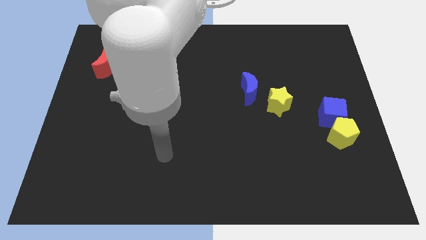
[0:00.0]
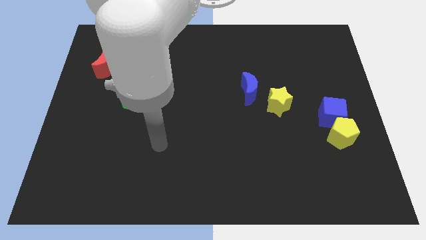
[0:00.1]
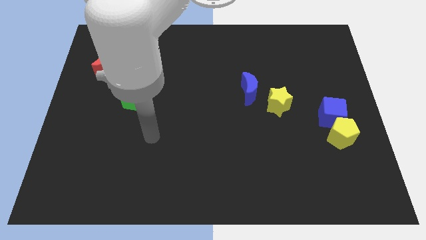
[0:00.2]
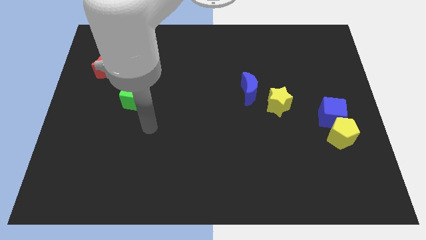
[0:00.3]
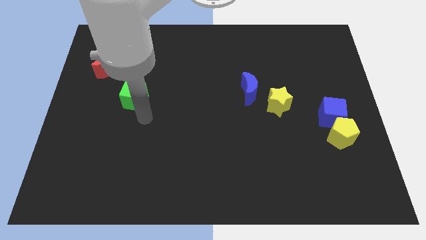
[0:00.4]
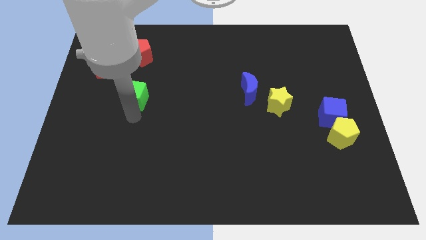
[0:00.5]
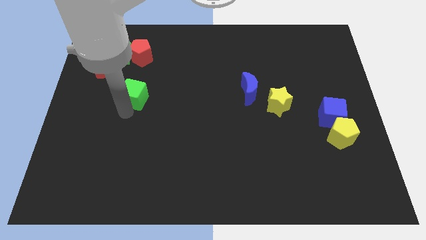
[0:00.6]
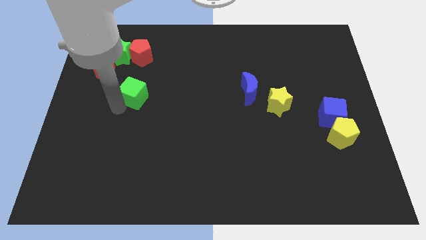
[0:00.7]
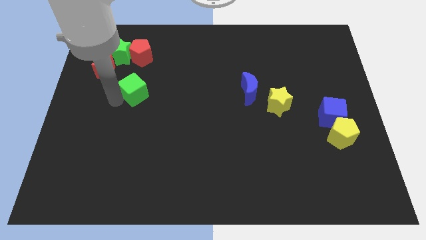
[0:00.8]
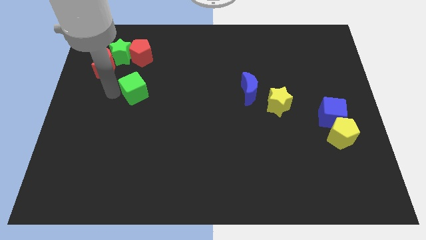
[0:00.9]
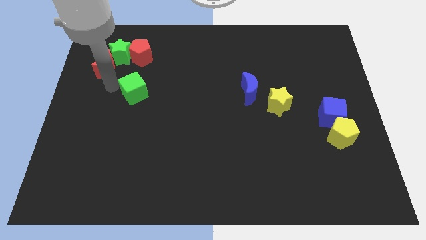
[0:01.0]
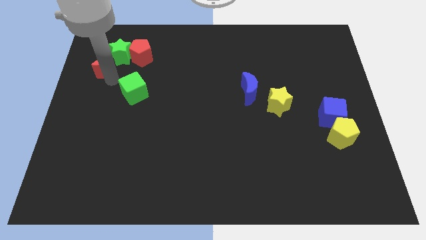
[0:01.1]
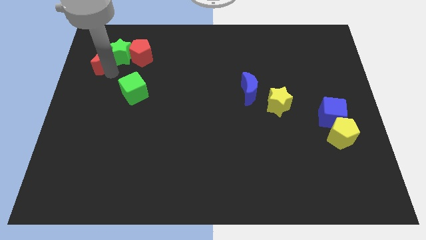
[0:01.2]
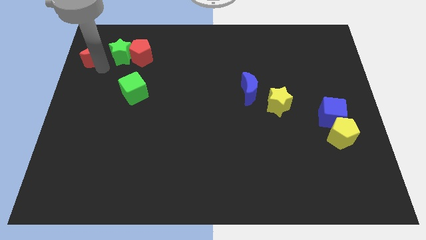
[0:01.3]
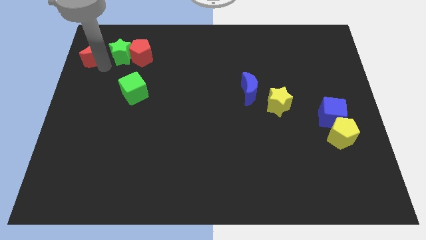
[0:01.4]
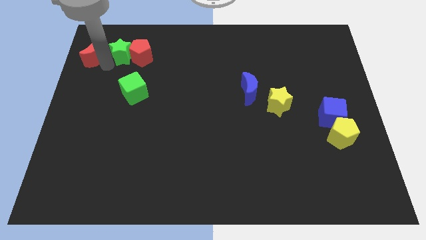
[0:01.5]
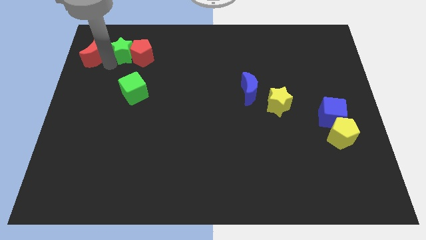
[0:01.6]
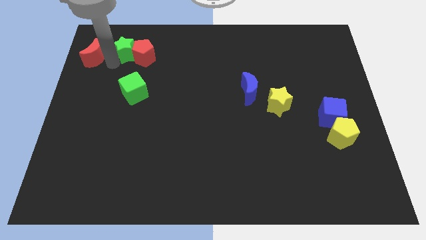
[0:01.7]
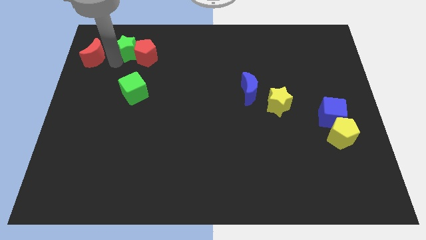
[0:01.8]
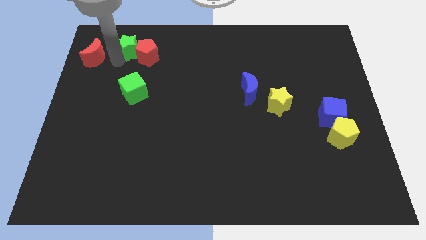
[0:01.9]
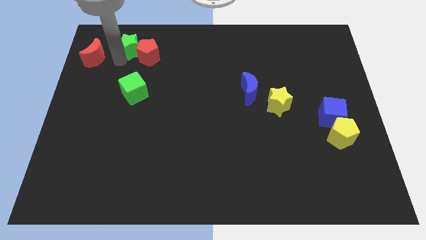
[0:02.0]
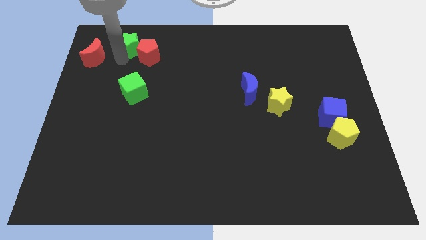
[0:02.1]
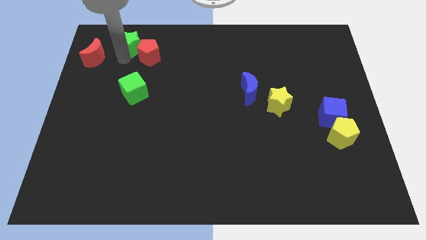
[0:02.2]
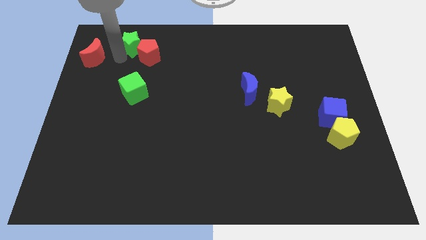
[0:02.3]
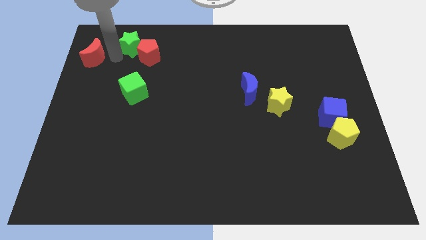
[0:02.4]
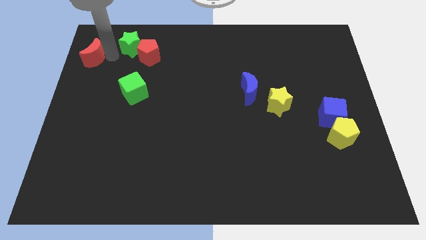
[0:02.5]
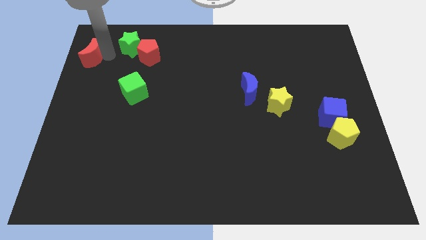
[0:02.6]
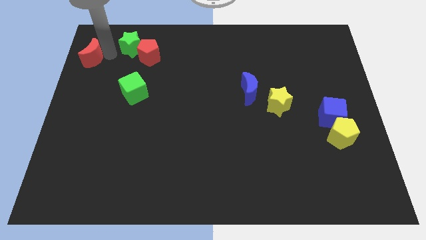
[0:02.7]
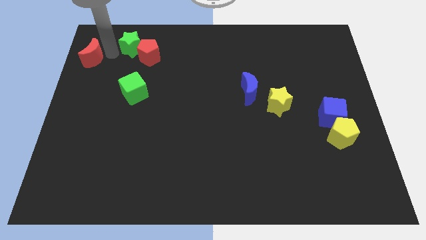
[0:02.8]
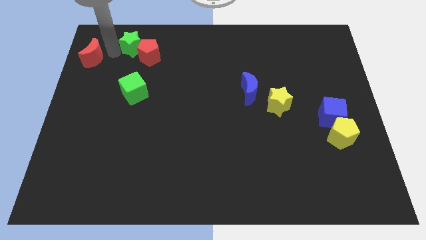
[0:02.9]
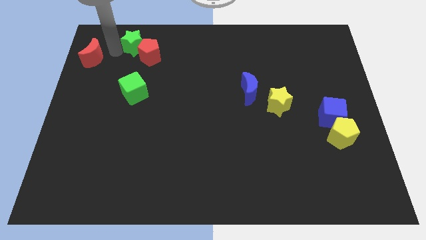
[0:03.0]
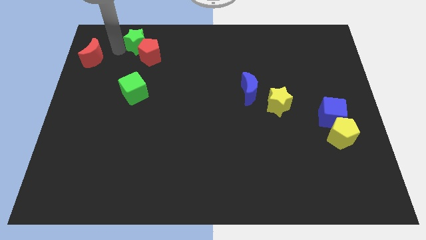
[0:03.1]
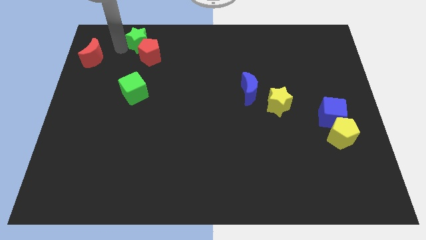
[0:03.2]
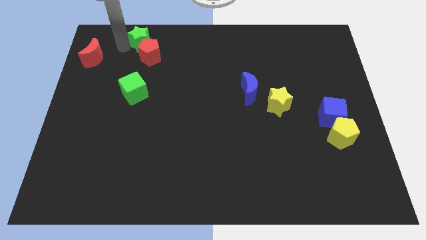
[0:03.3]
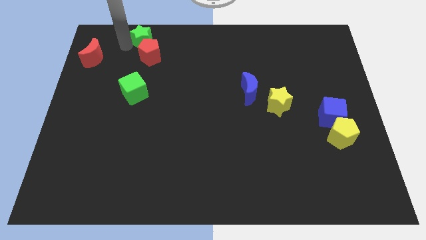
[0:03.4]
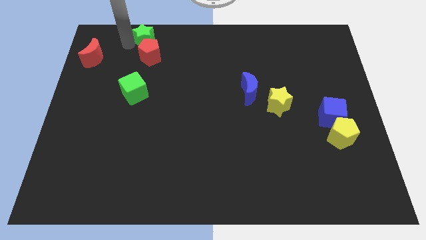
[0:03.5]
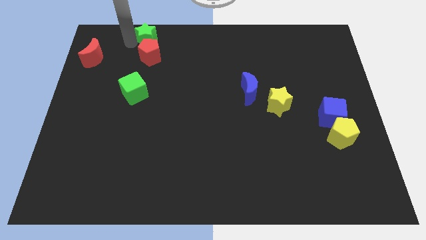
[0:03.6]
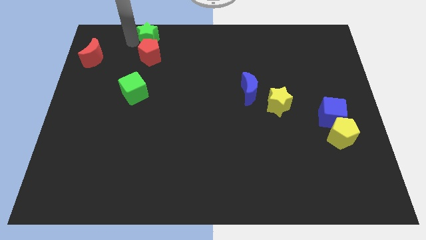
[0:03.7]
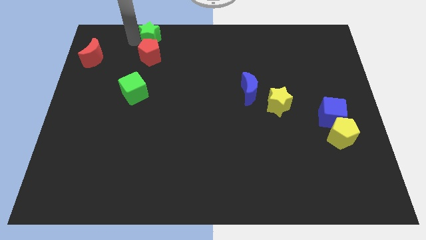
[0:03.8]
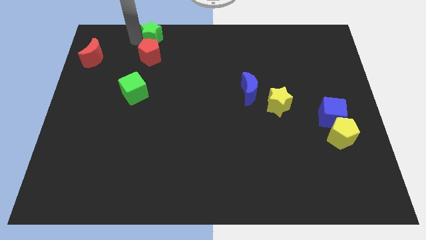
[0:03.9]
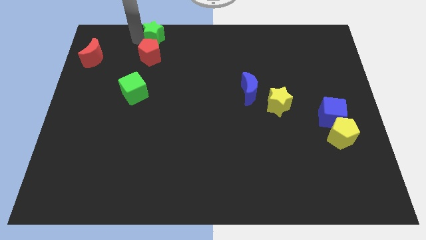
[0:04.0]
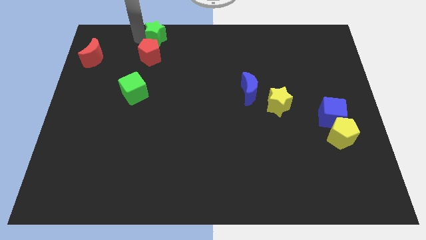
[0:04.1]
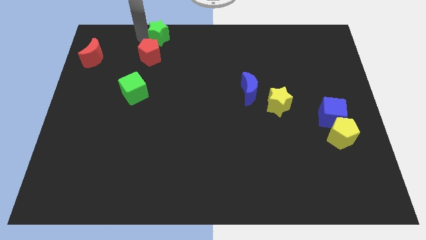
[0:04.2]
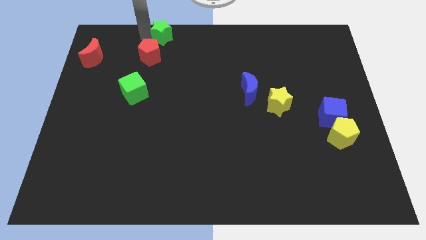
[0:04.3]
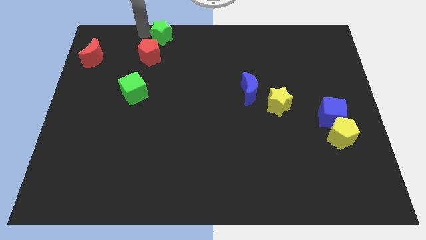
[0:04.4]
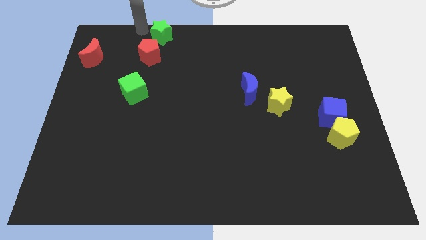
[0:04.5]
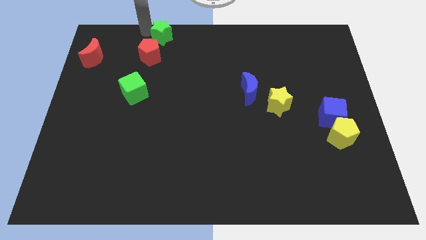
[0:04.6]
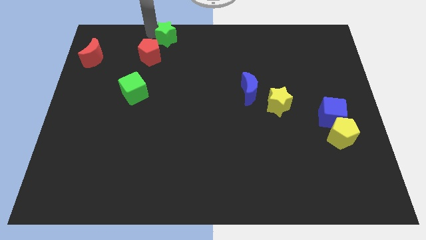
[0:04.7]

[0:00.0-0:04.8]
slide the green star to the top side

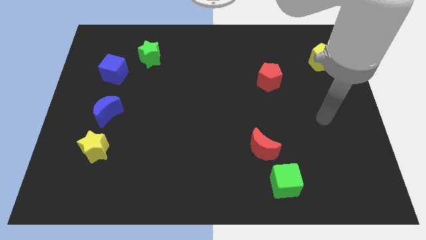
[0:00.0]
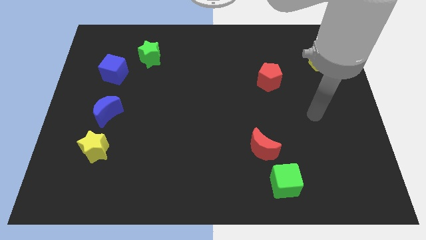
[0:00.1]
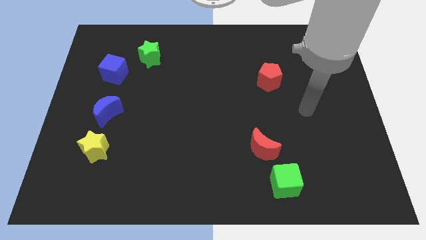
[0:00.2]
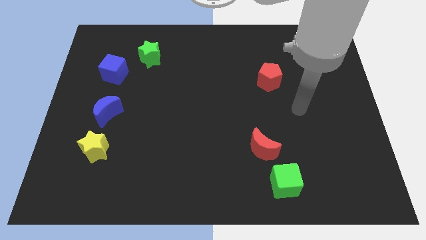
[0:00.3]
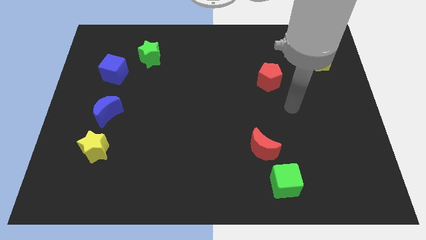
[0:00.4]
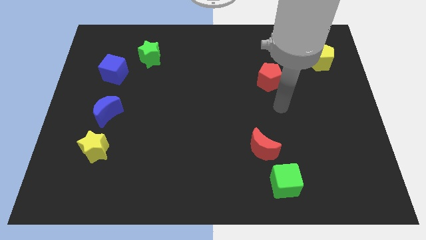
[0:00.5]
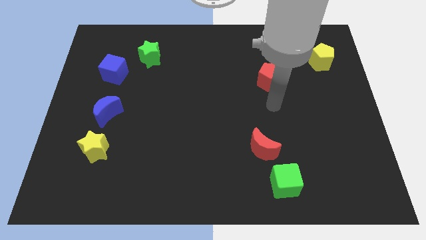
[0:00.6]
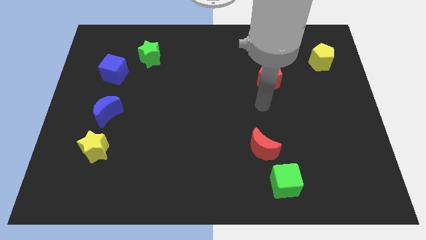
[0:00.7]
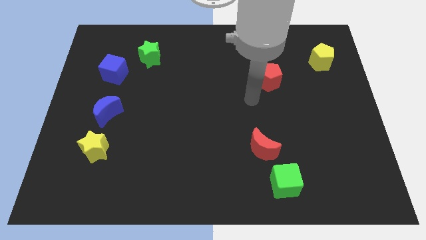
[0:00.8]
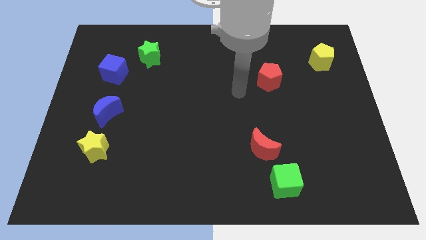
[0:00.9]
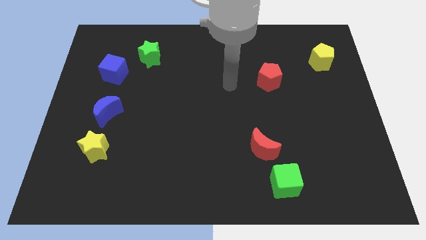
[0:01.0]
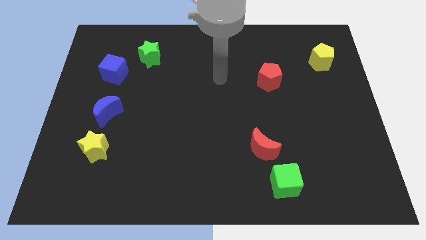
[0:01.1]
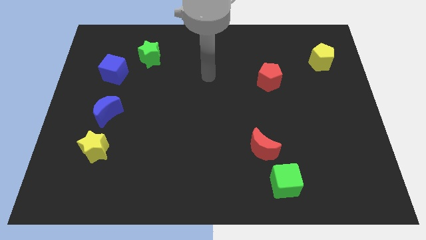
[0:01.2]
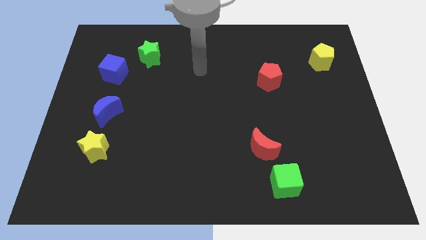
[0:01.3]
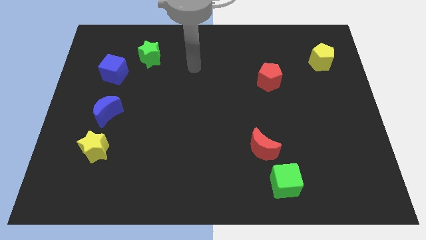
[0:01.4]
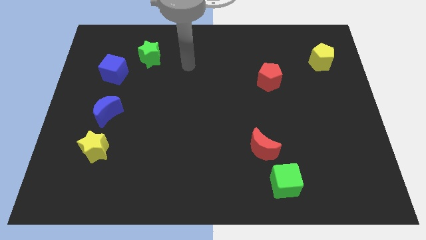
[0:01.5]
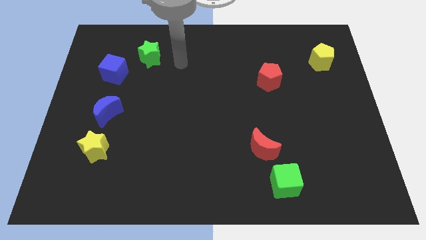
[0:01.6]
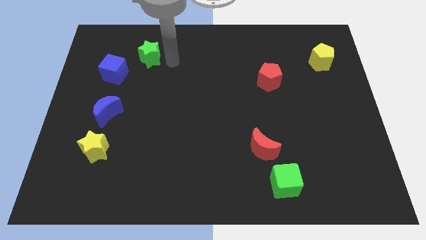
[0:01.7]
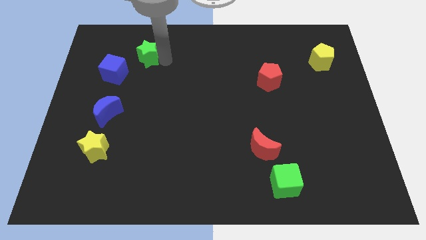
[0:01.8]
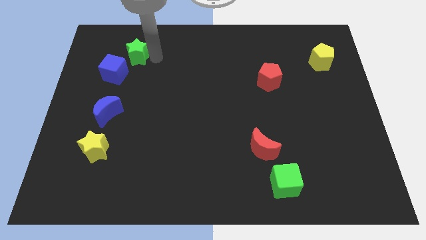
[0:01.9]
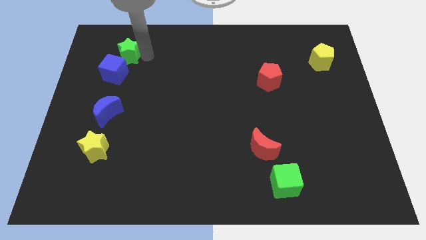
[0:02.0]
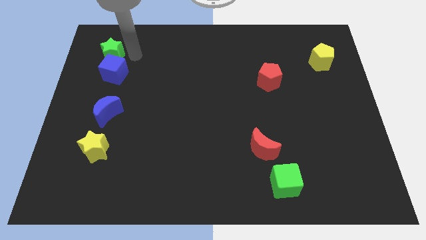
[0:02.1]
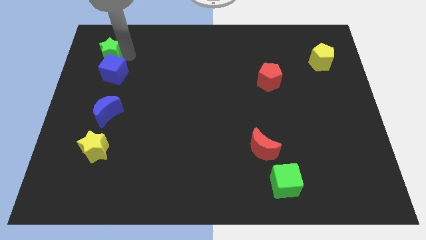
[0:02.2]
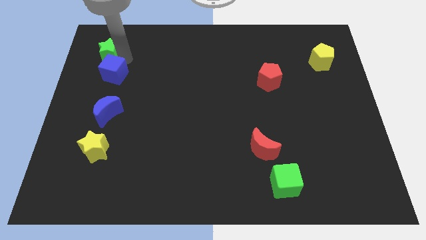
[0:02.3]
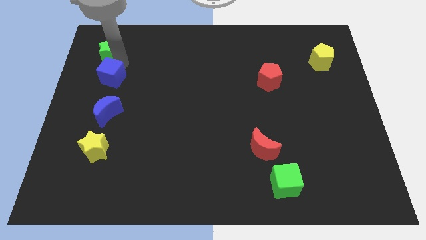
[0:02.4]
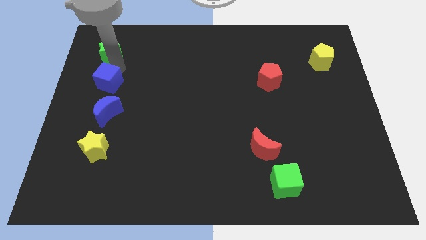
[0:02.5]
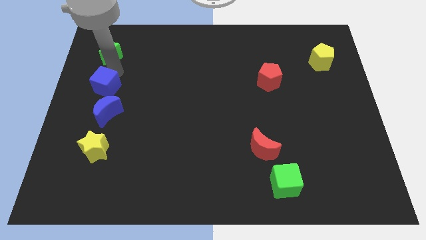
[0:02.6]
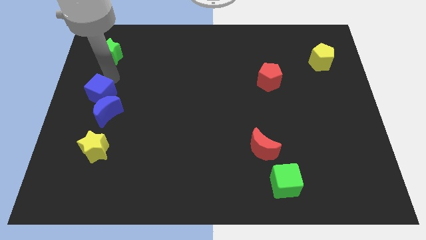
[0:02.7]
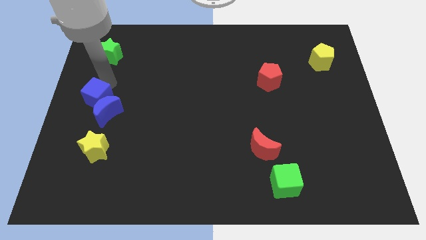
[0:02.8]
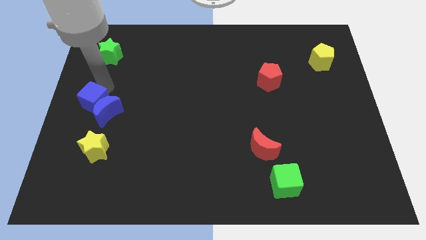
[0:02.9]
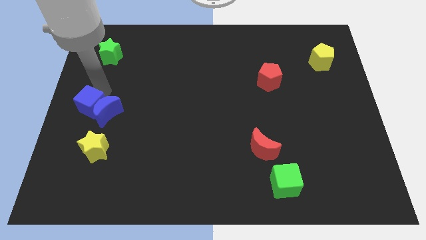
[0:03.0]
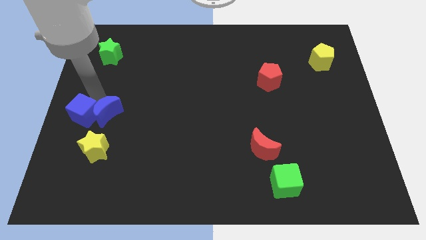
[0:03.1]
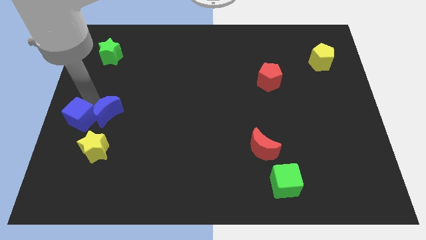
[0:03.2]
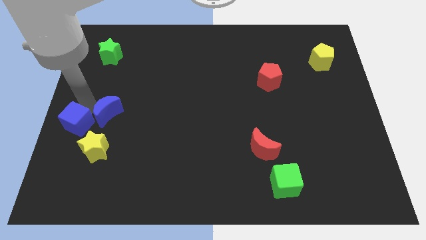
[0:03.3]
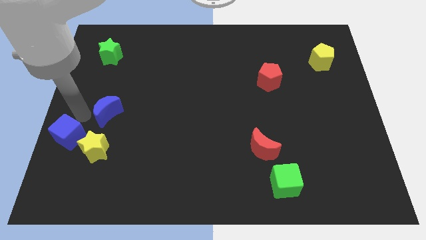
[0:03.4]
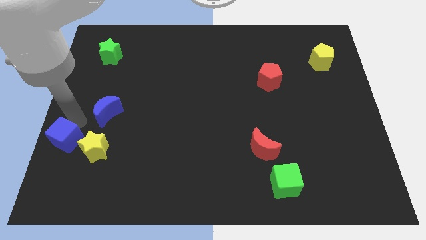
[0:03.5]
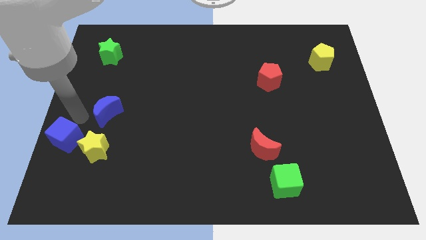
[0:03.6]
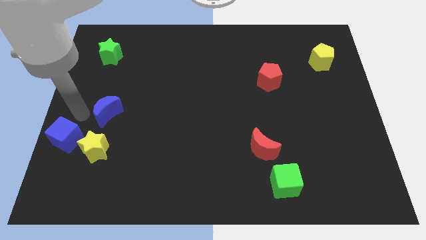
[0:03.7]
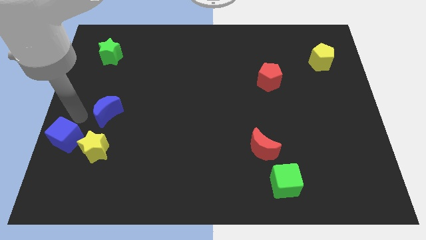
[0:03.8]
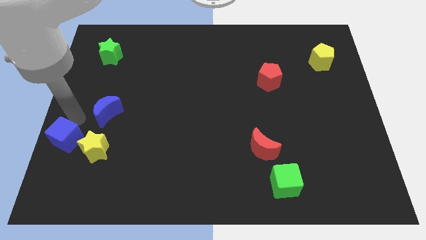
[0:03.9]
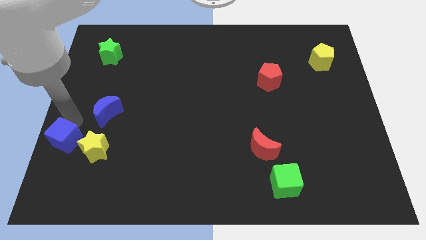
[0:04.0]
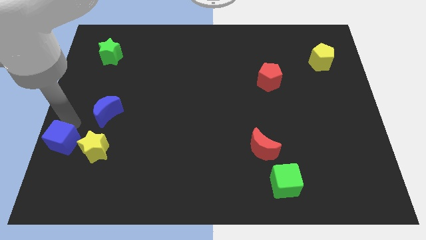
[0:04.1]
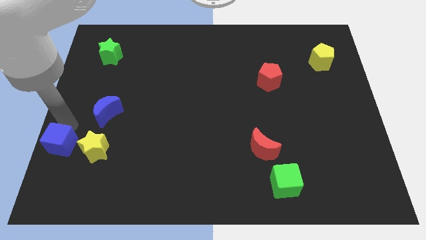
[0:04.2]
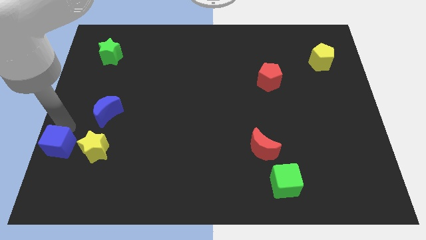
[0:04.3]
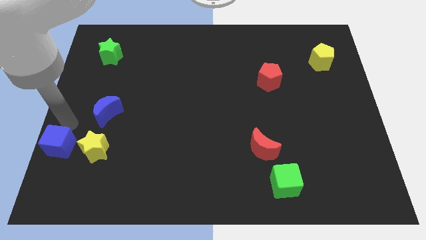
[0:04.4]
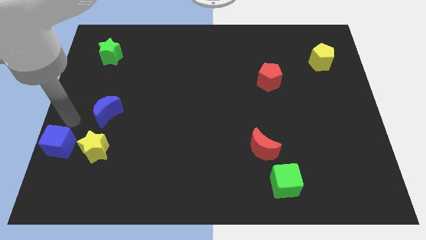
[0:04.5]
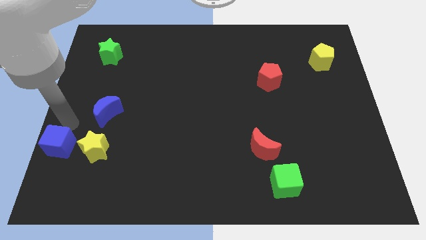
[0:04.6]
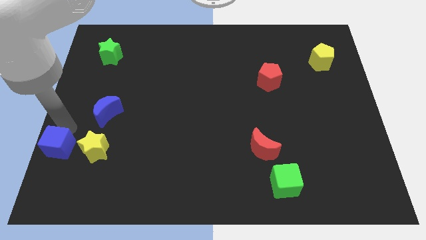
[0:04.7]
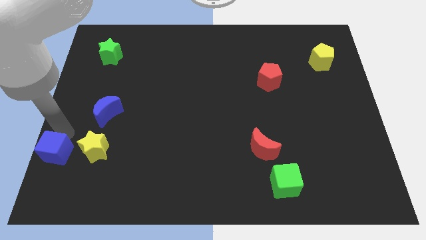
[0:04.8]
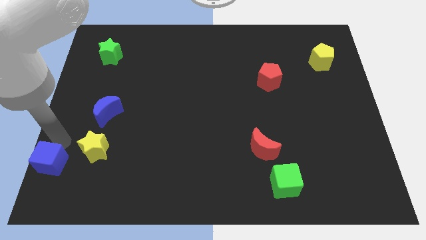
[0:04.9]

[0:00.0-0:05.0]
slide the blue cube to the bottom left corner
